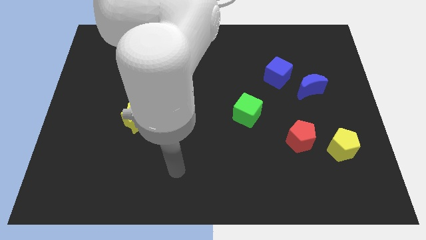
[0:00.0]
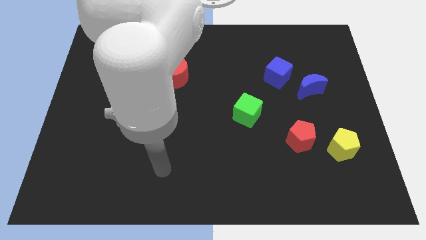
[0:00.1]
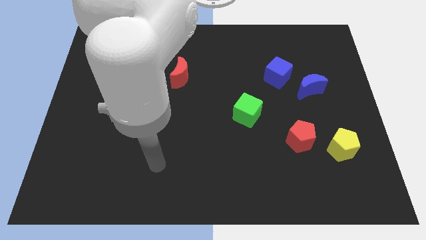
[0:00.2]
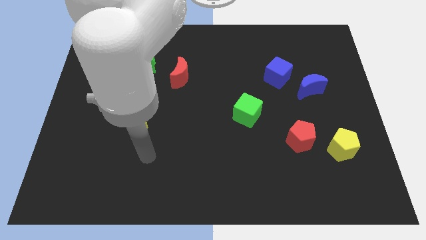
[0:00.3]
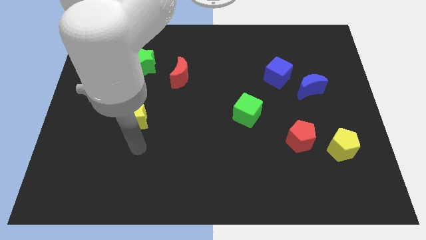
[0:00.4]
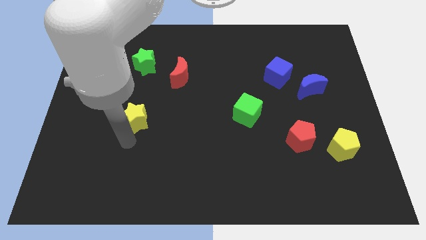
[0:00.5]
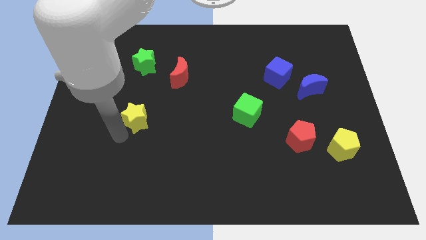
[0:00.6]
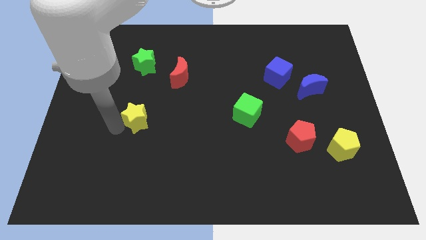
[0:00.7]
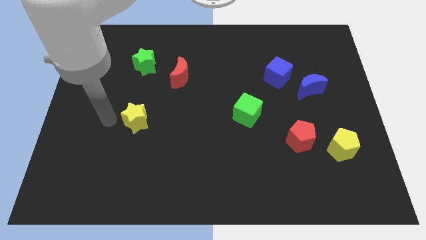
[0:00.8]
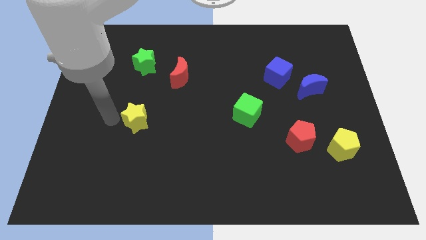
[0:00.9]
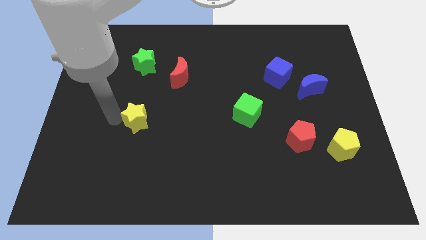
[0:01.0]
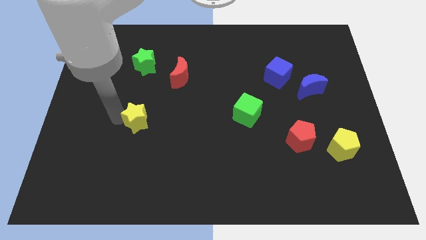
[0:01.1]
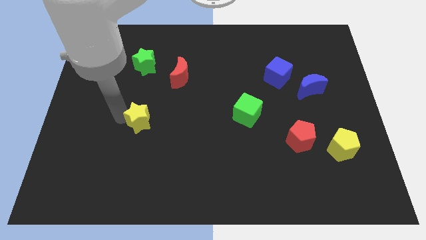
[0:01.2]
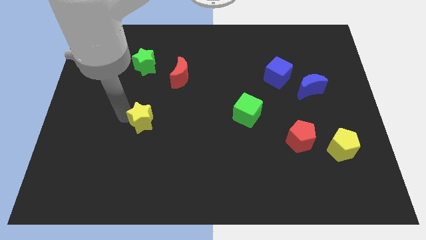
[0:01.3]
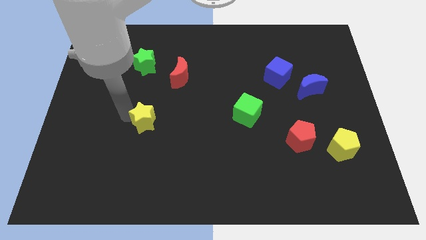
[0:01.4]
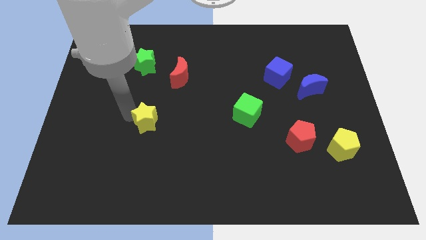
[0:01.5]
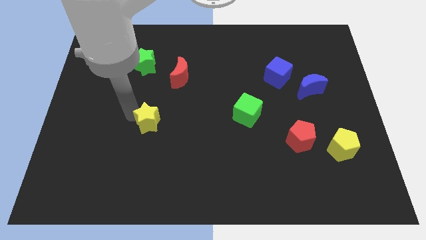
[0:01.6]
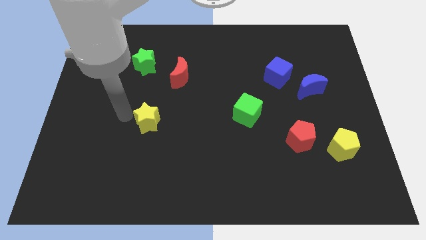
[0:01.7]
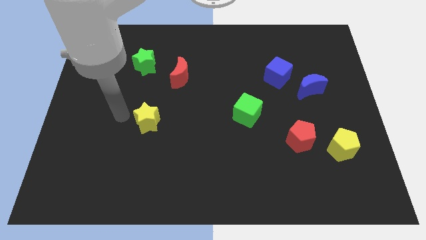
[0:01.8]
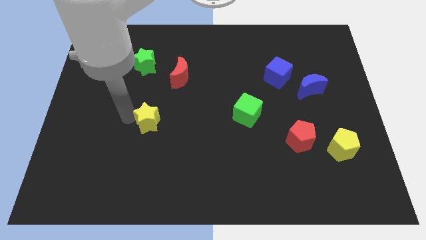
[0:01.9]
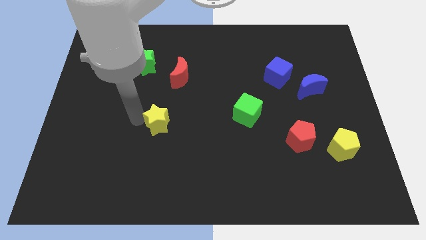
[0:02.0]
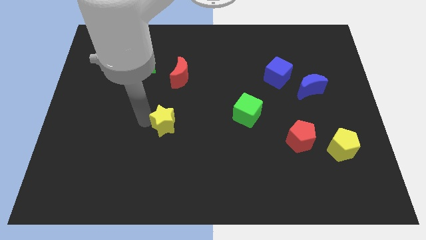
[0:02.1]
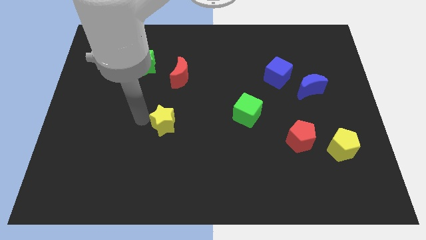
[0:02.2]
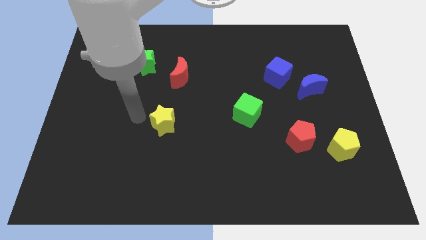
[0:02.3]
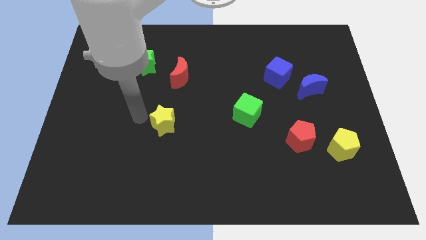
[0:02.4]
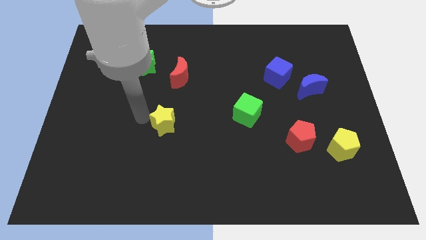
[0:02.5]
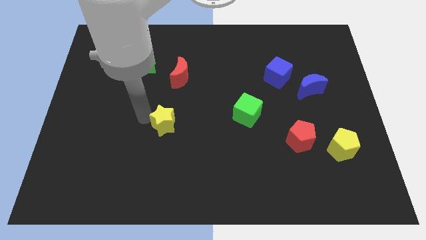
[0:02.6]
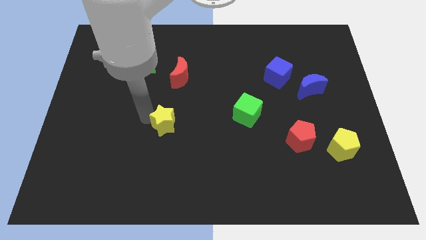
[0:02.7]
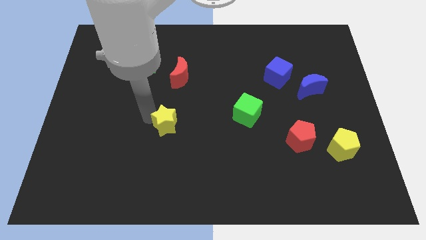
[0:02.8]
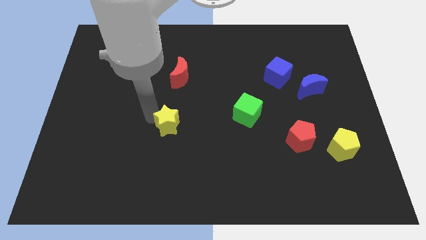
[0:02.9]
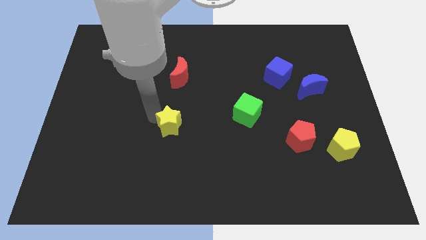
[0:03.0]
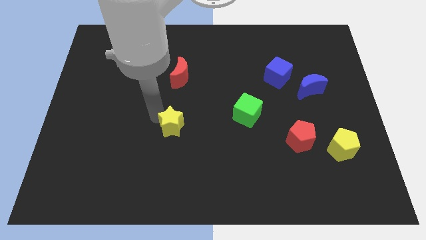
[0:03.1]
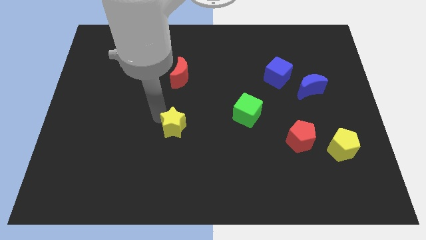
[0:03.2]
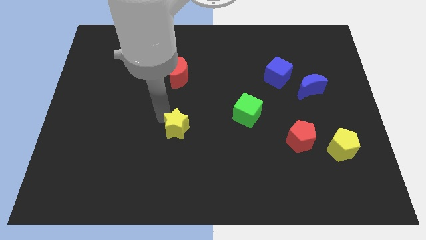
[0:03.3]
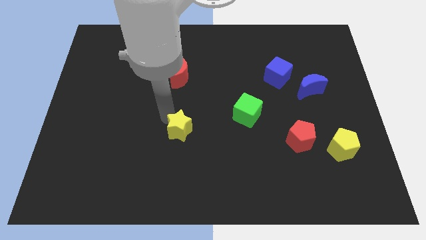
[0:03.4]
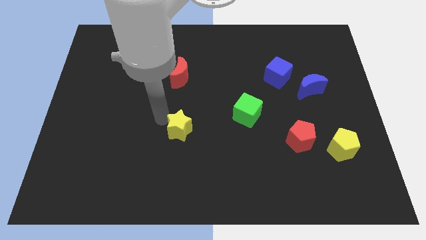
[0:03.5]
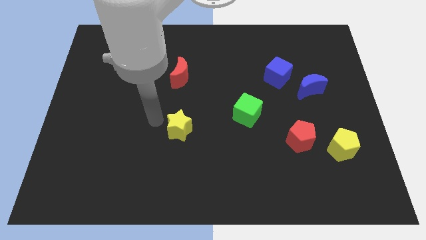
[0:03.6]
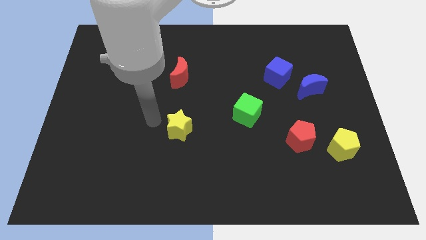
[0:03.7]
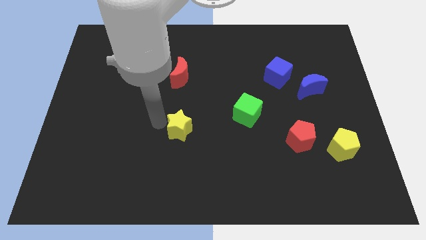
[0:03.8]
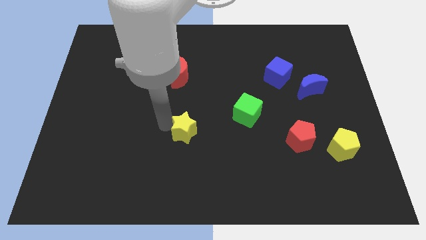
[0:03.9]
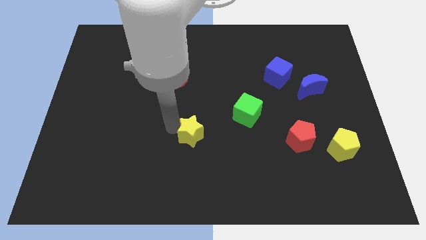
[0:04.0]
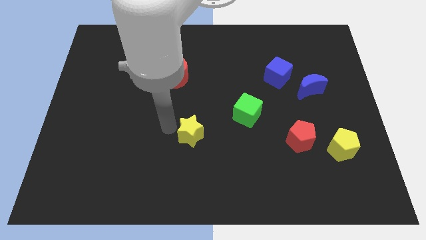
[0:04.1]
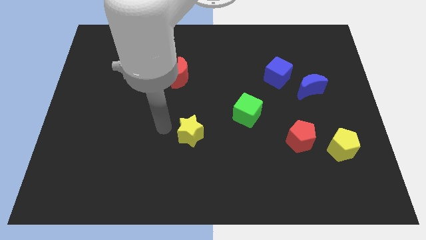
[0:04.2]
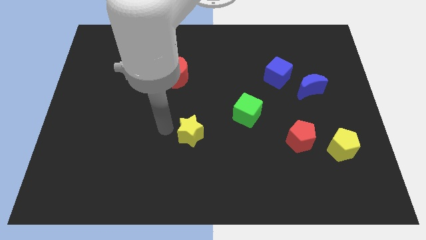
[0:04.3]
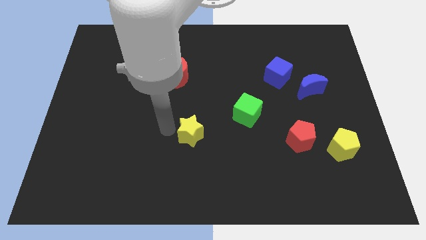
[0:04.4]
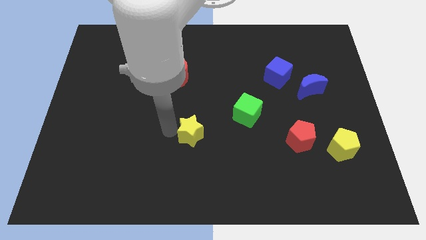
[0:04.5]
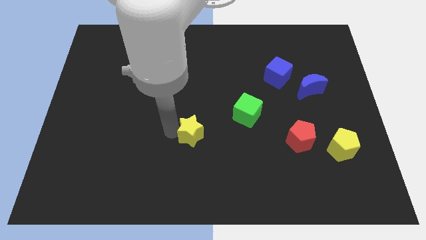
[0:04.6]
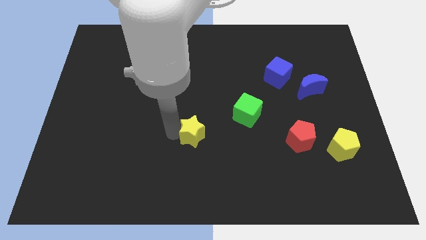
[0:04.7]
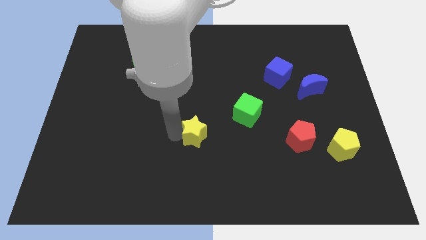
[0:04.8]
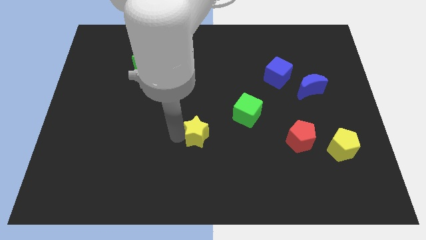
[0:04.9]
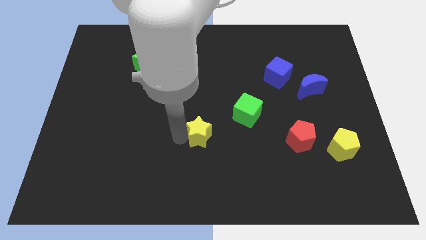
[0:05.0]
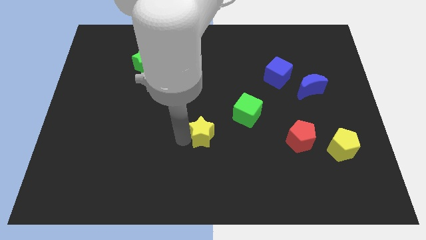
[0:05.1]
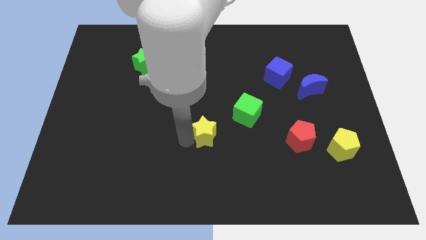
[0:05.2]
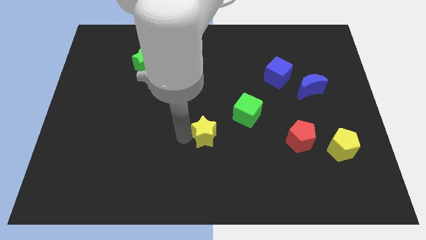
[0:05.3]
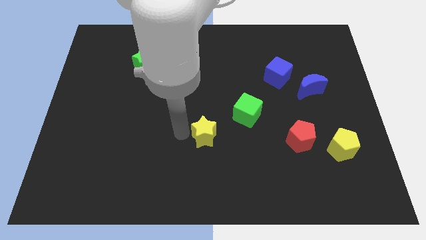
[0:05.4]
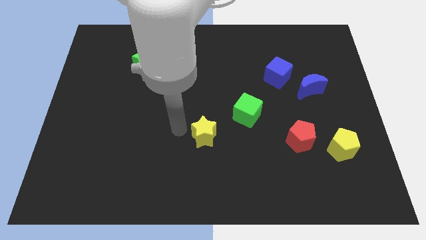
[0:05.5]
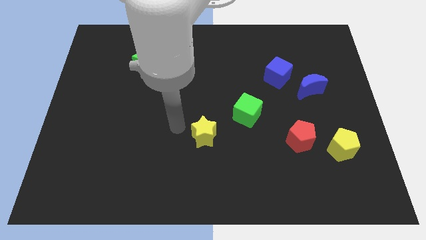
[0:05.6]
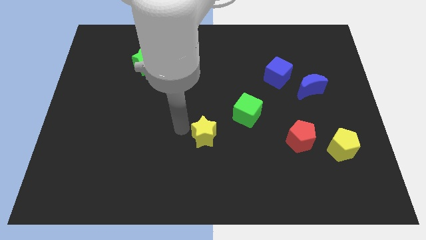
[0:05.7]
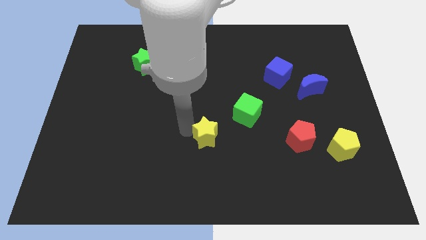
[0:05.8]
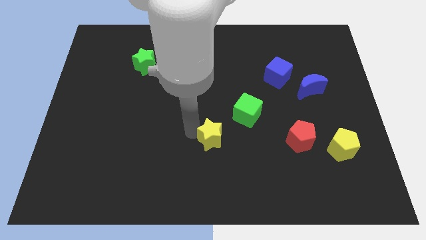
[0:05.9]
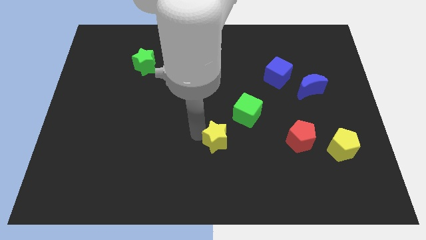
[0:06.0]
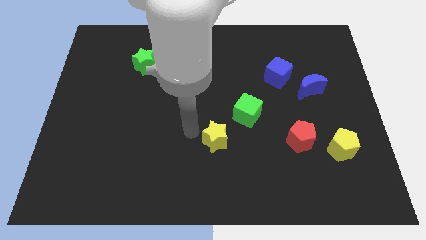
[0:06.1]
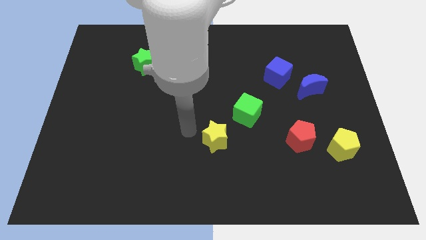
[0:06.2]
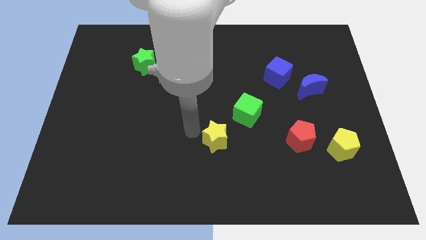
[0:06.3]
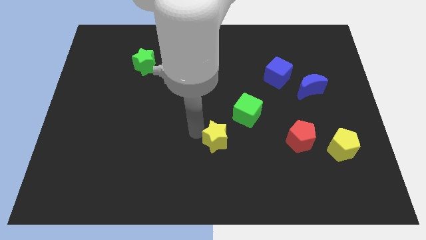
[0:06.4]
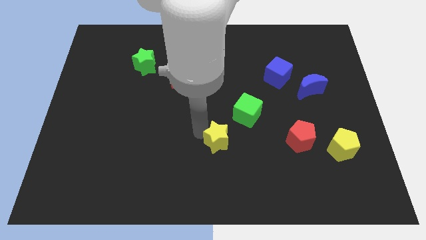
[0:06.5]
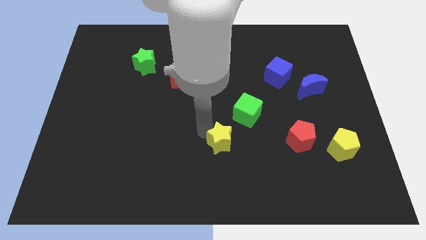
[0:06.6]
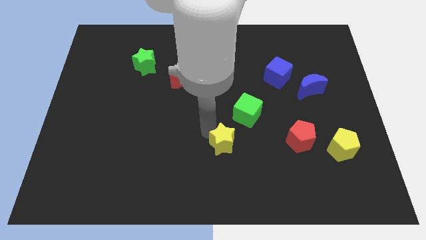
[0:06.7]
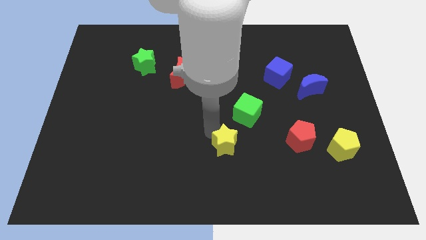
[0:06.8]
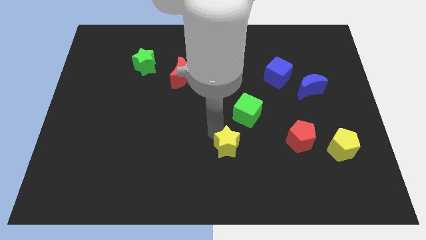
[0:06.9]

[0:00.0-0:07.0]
put the yellow star below the green cube

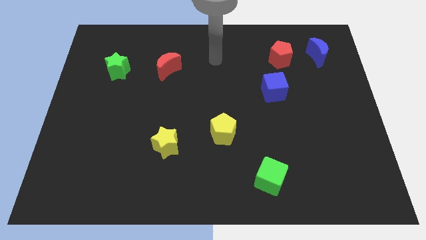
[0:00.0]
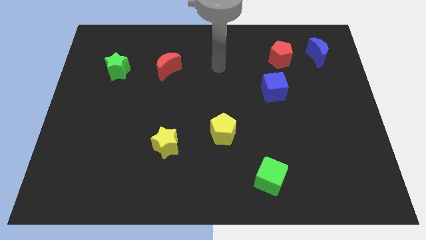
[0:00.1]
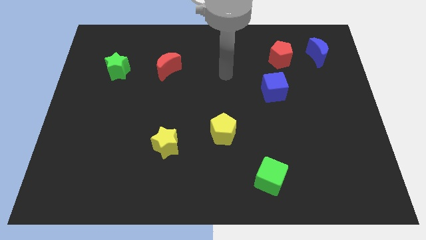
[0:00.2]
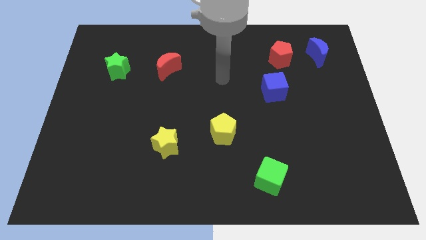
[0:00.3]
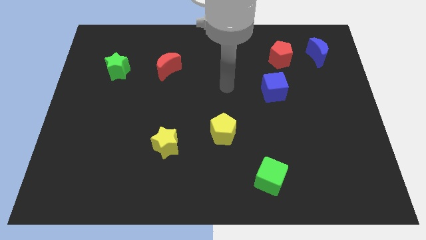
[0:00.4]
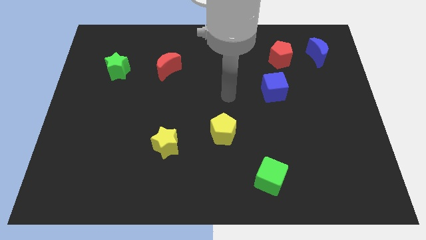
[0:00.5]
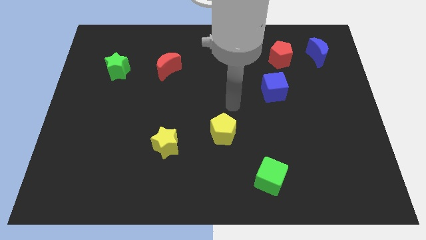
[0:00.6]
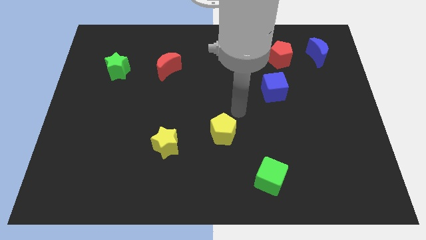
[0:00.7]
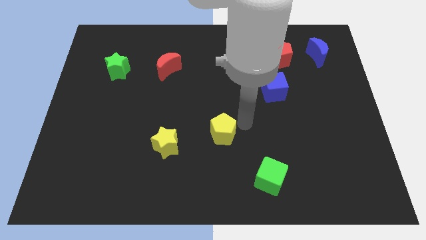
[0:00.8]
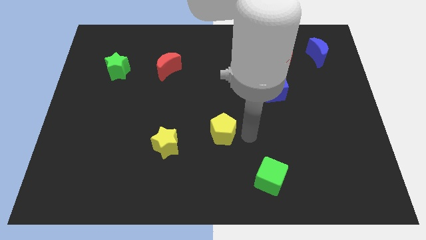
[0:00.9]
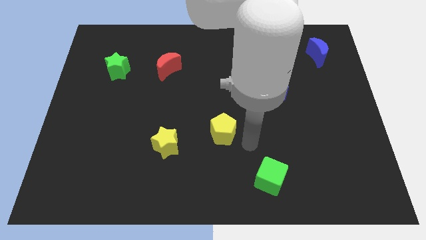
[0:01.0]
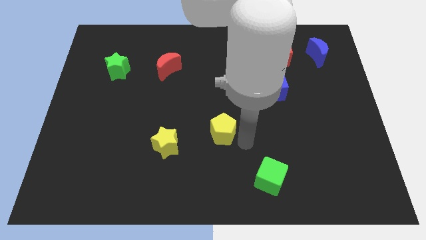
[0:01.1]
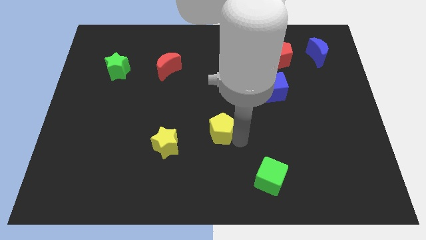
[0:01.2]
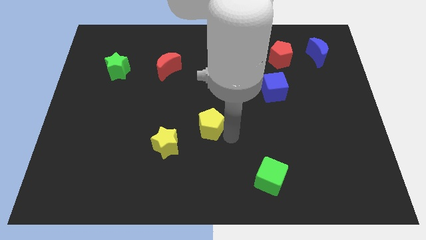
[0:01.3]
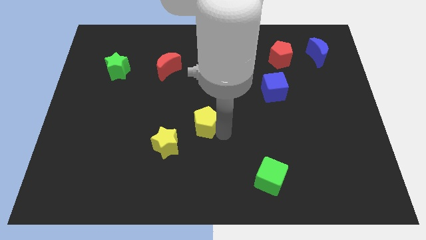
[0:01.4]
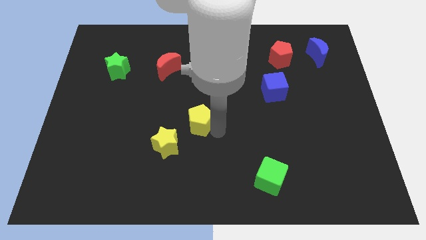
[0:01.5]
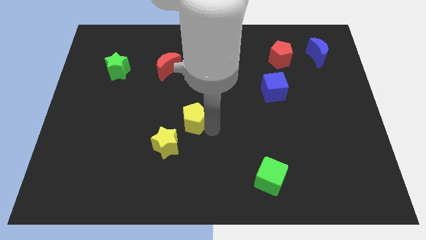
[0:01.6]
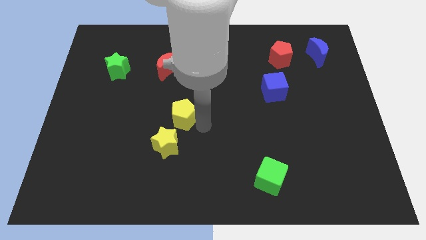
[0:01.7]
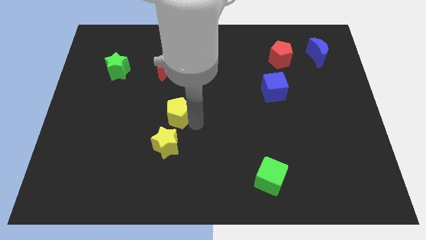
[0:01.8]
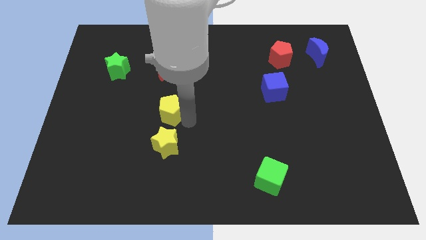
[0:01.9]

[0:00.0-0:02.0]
push the yellow pentagon below the red moon
